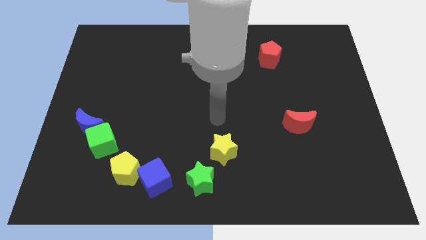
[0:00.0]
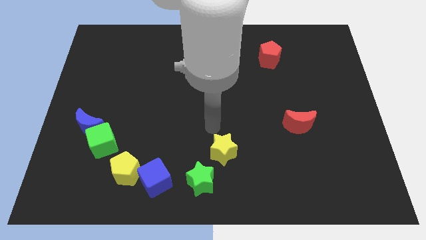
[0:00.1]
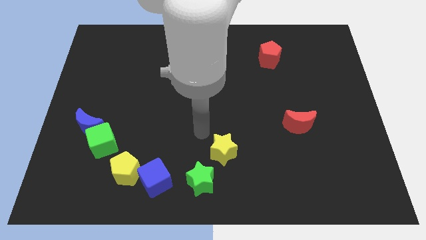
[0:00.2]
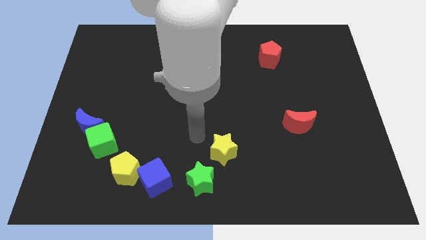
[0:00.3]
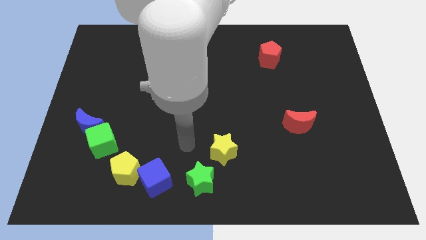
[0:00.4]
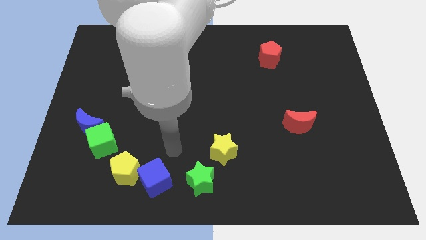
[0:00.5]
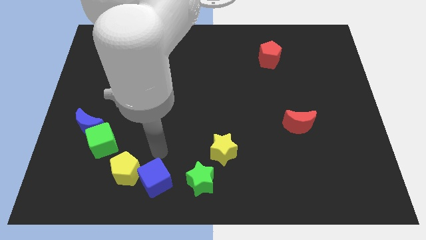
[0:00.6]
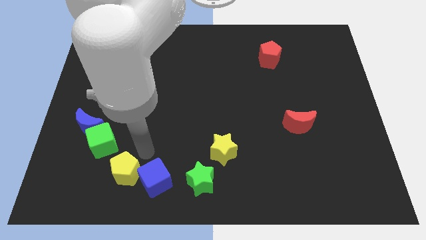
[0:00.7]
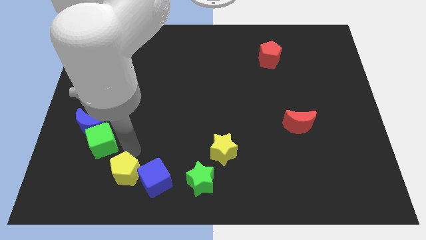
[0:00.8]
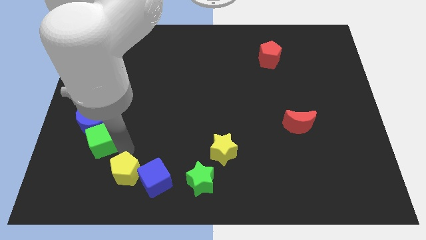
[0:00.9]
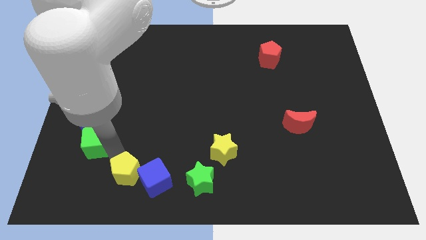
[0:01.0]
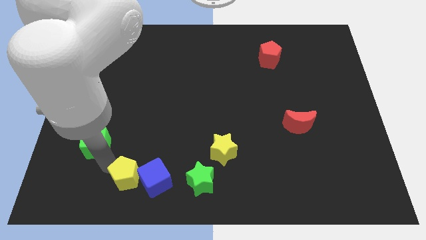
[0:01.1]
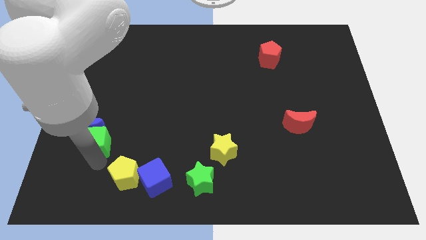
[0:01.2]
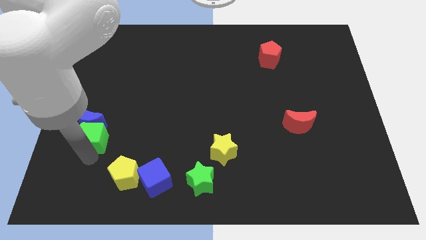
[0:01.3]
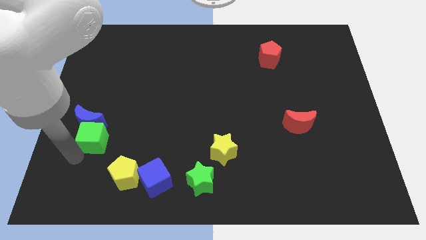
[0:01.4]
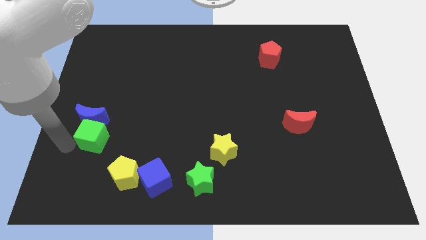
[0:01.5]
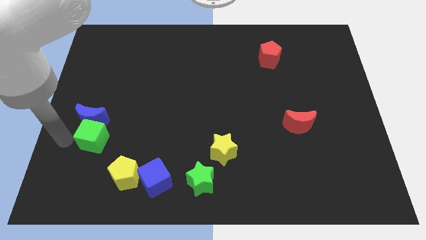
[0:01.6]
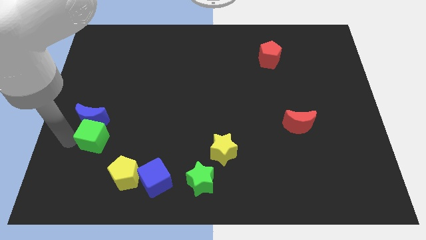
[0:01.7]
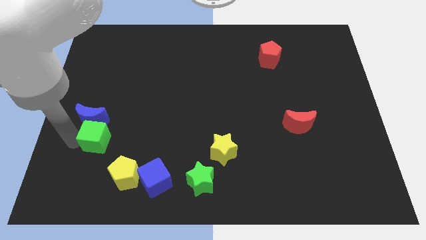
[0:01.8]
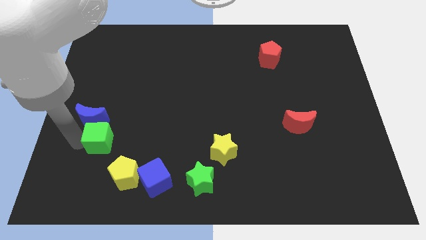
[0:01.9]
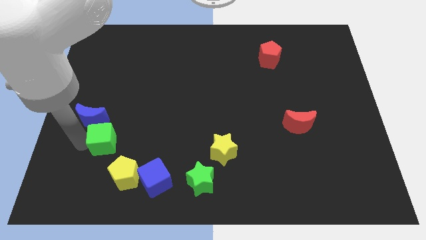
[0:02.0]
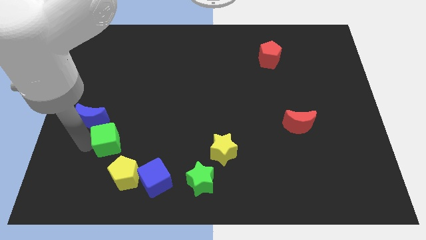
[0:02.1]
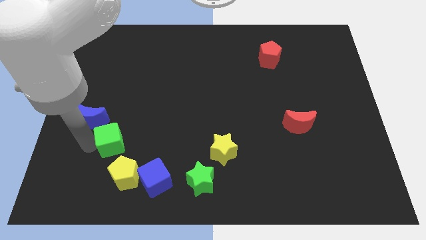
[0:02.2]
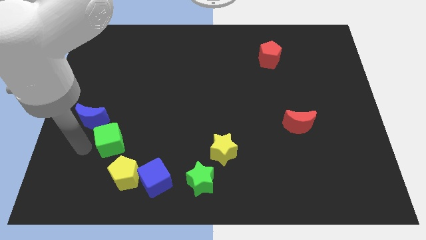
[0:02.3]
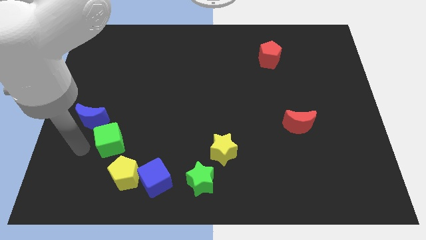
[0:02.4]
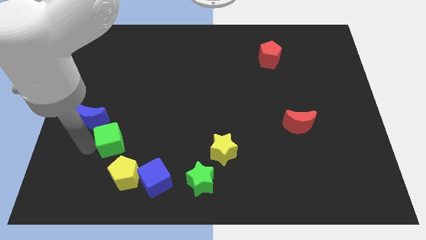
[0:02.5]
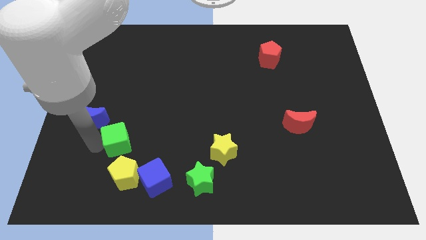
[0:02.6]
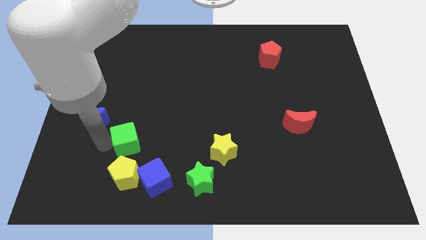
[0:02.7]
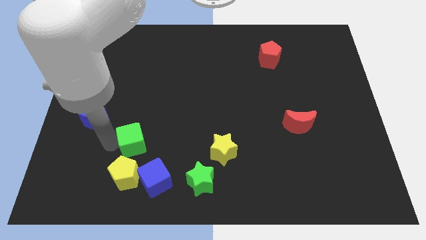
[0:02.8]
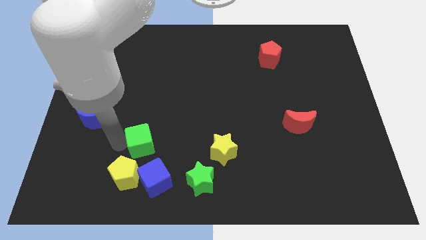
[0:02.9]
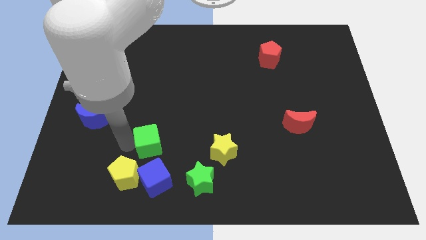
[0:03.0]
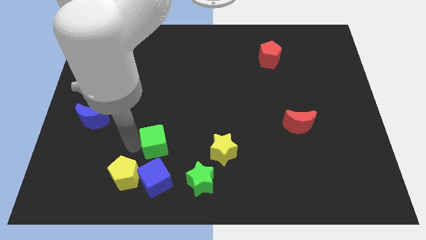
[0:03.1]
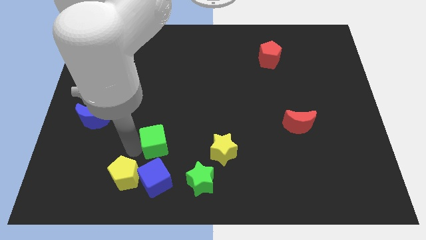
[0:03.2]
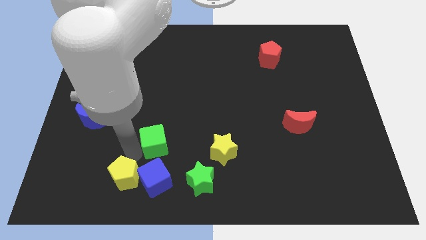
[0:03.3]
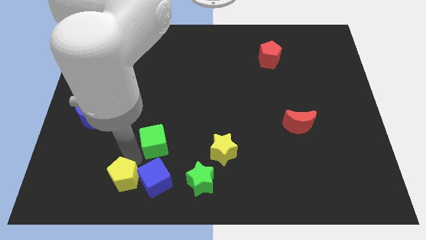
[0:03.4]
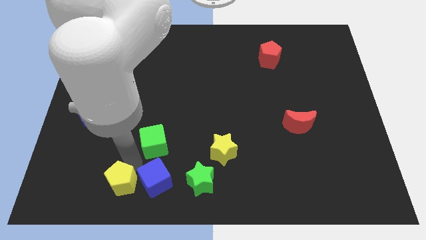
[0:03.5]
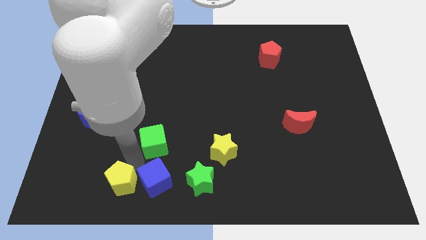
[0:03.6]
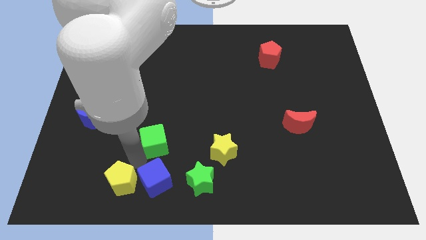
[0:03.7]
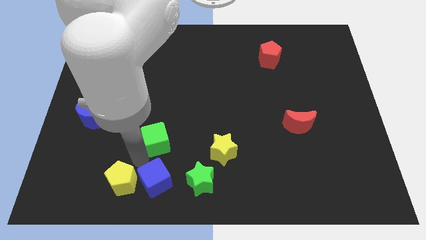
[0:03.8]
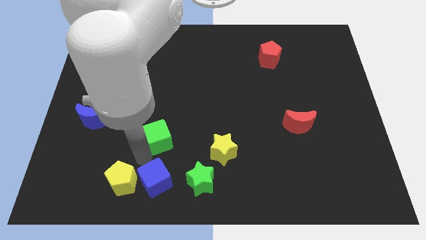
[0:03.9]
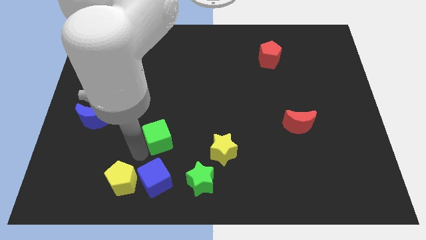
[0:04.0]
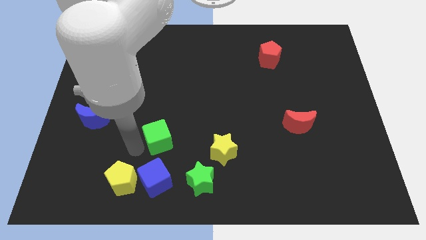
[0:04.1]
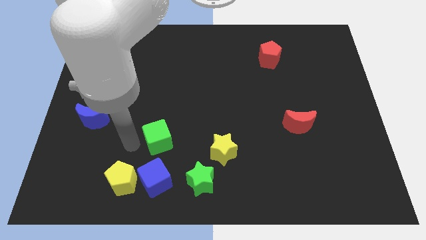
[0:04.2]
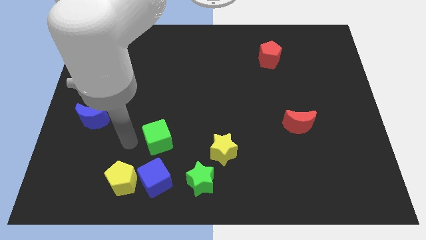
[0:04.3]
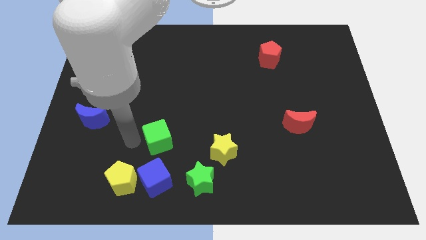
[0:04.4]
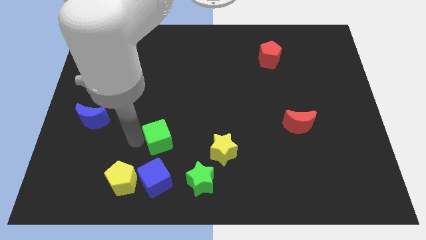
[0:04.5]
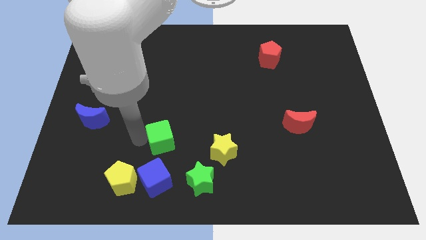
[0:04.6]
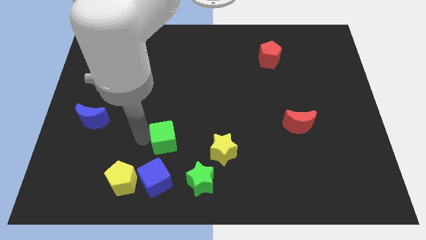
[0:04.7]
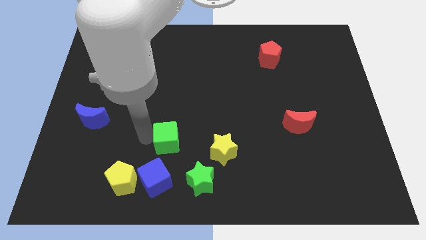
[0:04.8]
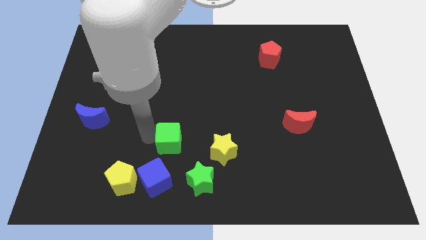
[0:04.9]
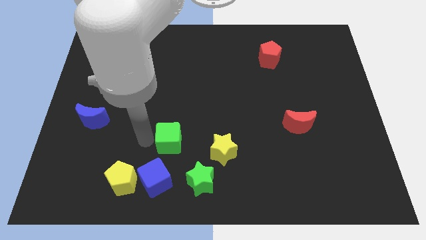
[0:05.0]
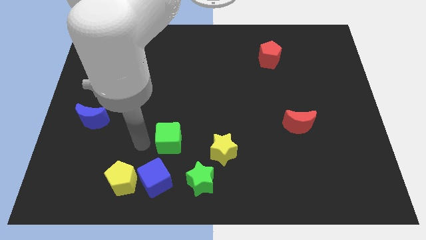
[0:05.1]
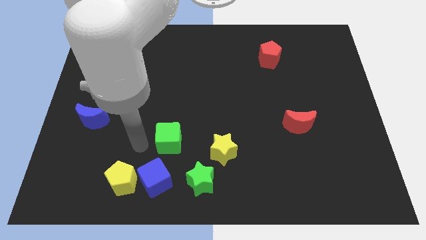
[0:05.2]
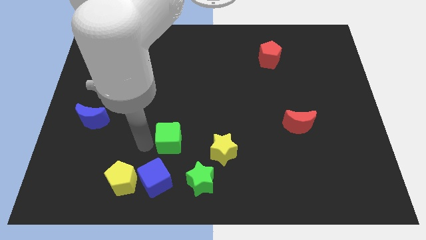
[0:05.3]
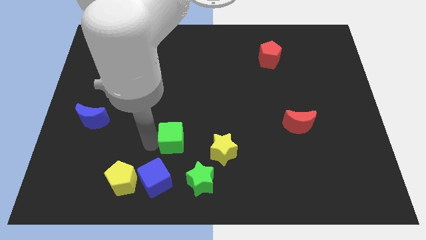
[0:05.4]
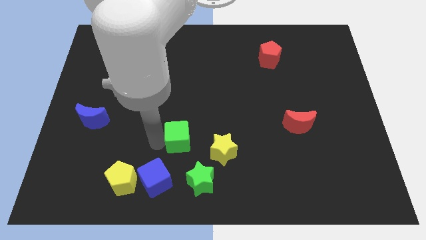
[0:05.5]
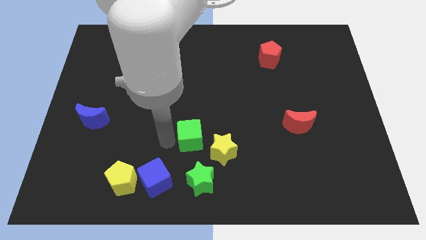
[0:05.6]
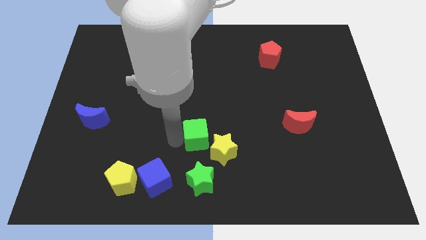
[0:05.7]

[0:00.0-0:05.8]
slide the green cube to the right

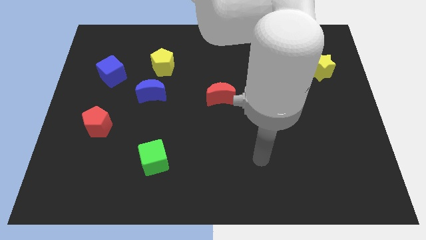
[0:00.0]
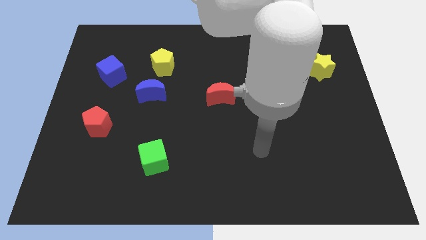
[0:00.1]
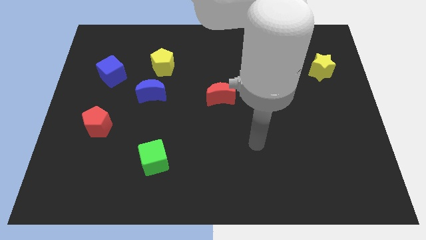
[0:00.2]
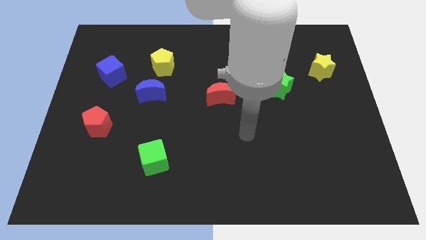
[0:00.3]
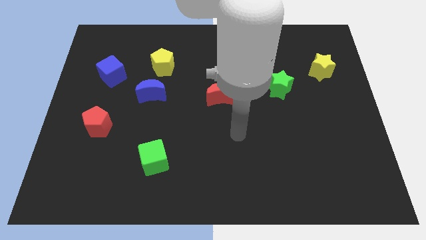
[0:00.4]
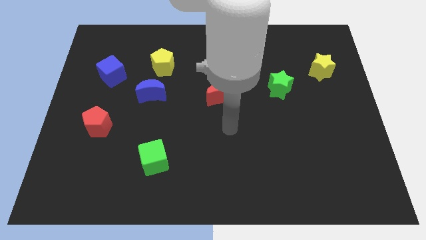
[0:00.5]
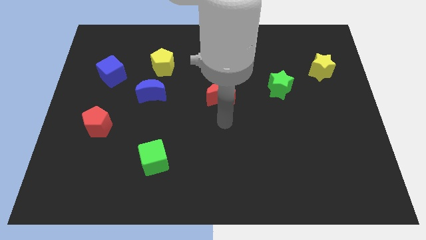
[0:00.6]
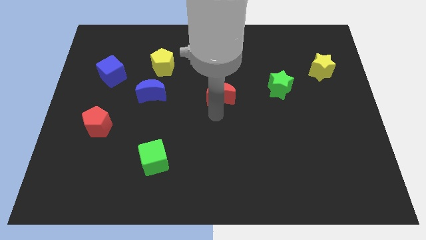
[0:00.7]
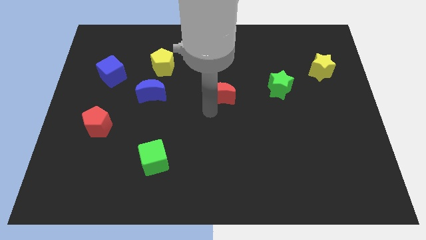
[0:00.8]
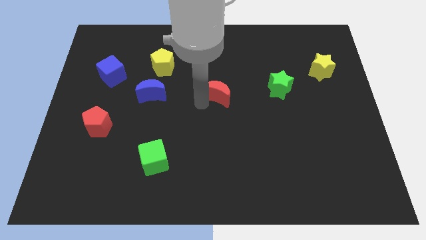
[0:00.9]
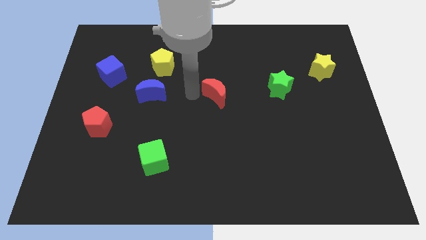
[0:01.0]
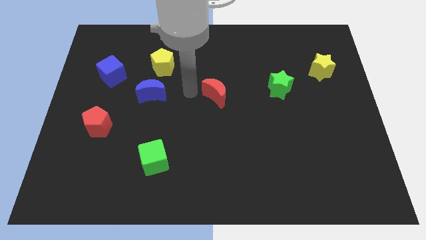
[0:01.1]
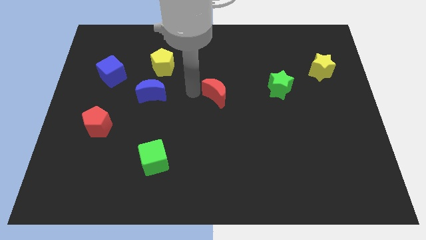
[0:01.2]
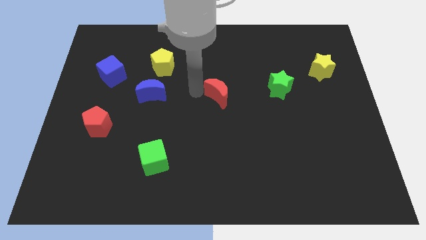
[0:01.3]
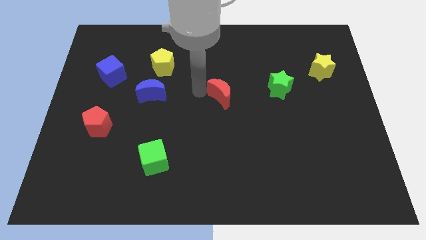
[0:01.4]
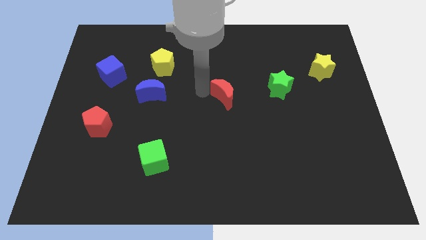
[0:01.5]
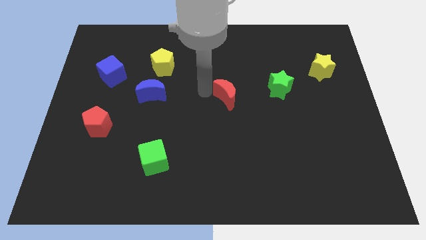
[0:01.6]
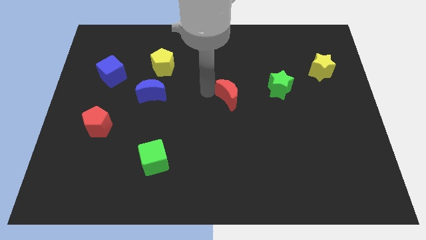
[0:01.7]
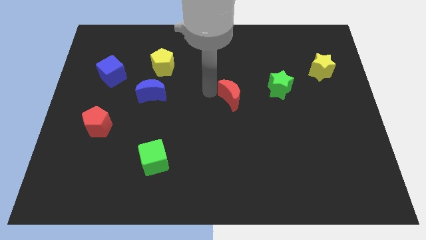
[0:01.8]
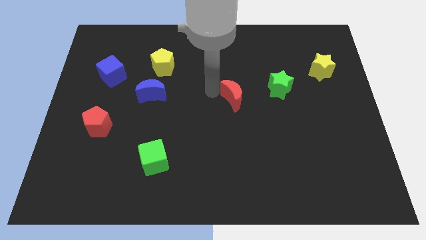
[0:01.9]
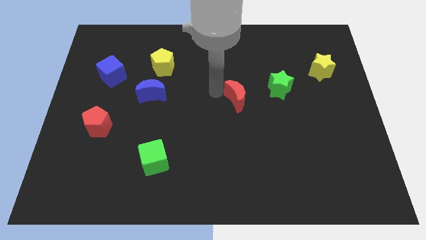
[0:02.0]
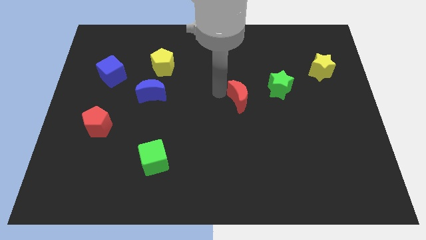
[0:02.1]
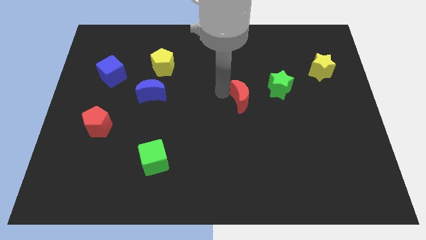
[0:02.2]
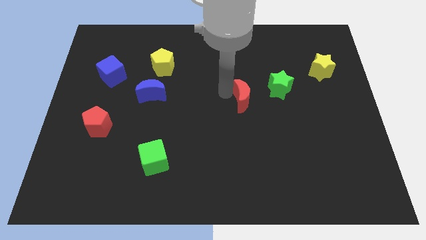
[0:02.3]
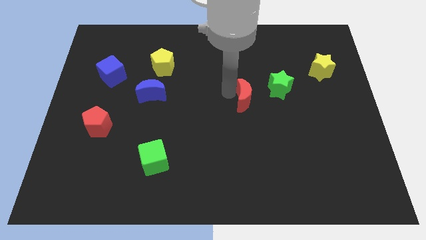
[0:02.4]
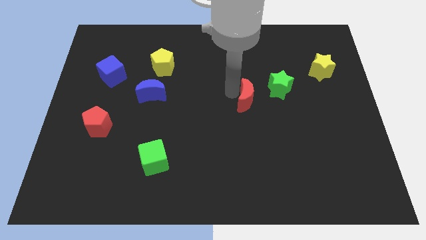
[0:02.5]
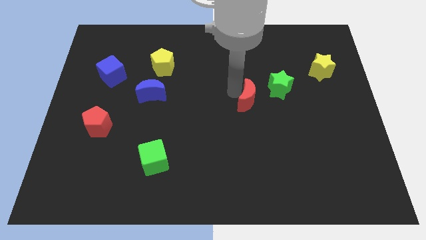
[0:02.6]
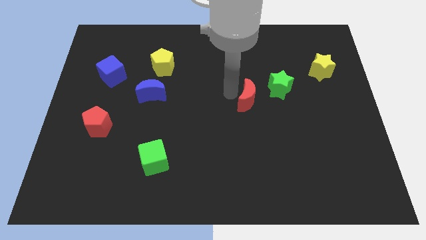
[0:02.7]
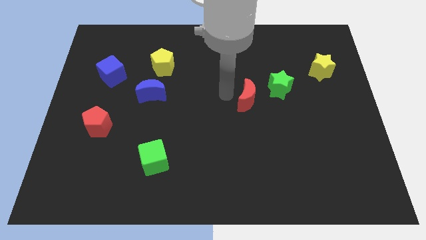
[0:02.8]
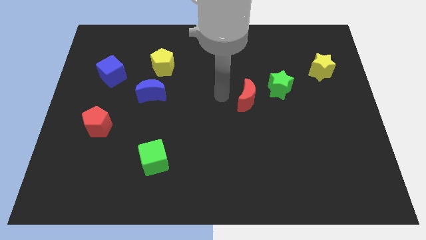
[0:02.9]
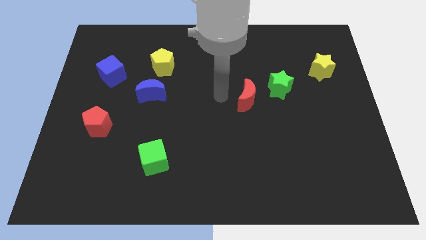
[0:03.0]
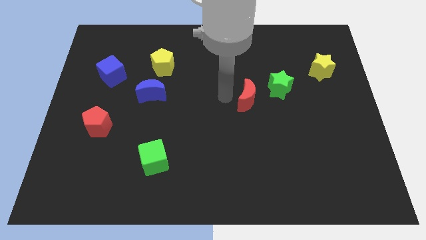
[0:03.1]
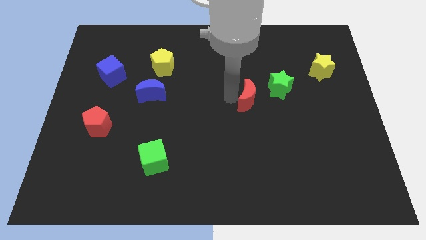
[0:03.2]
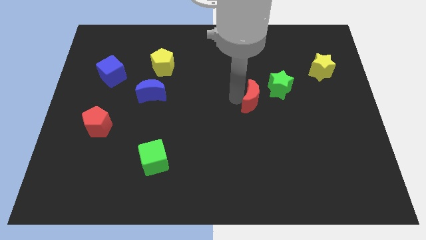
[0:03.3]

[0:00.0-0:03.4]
move the red moon somewhat to the right
